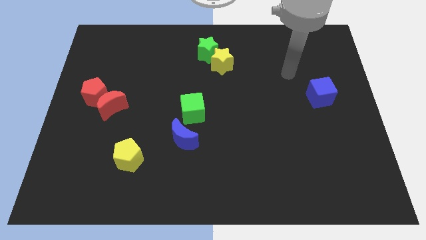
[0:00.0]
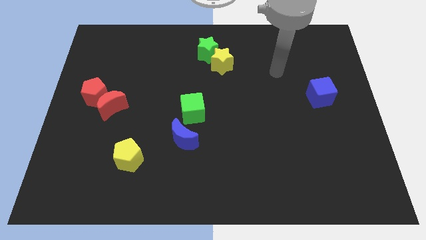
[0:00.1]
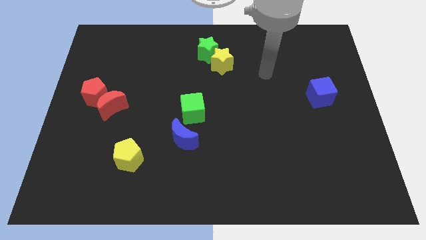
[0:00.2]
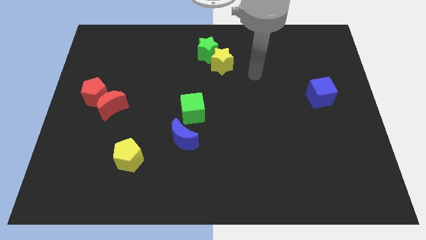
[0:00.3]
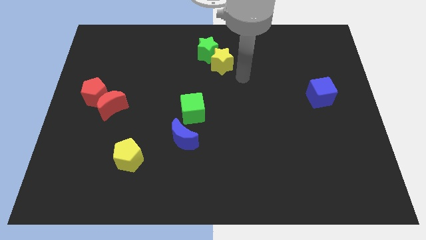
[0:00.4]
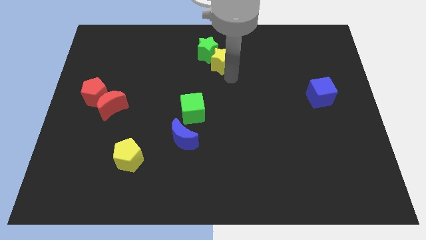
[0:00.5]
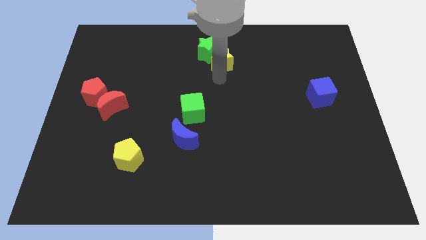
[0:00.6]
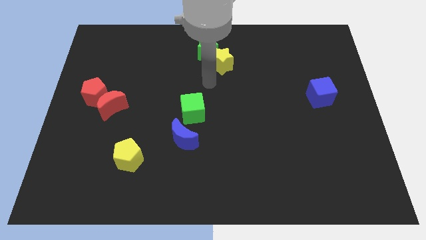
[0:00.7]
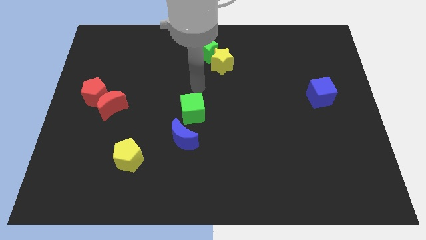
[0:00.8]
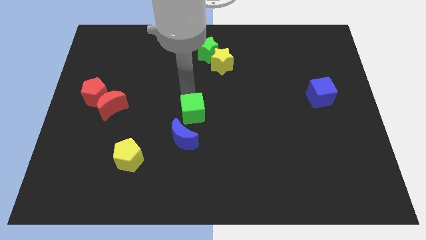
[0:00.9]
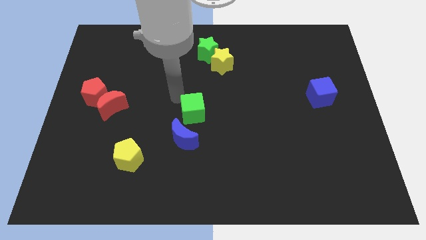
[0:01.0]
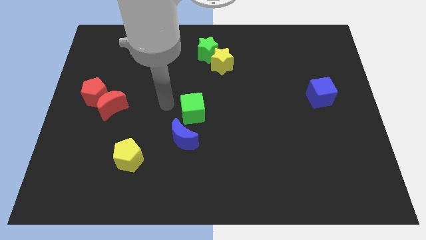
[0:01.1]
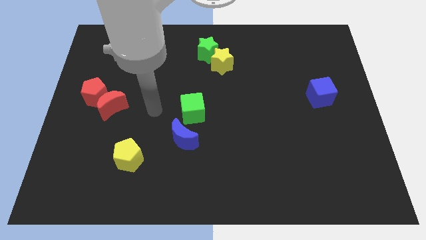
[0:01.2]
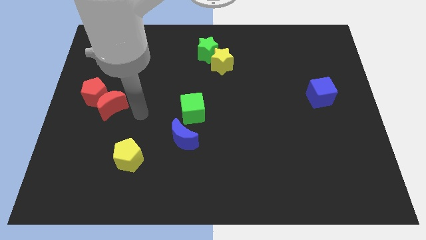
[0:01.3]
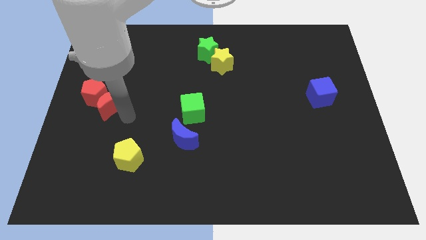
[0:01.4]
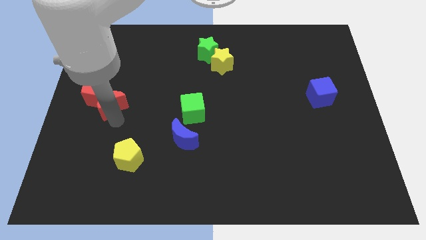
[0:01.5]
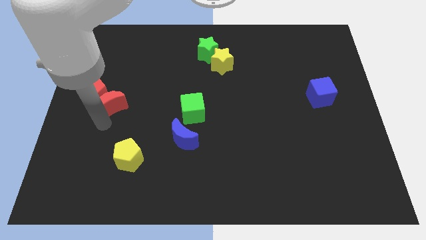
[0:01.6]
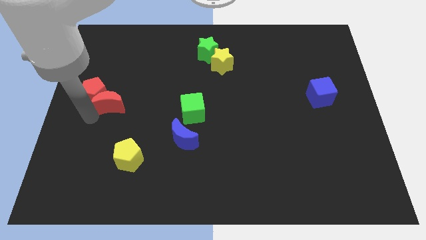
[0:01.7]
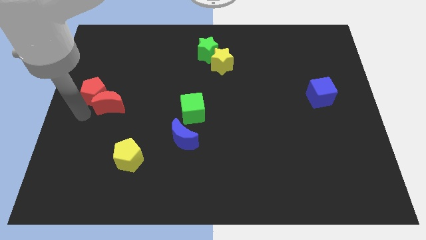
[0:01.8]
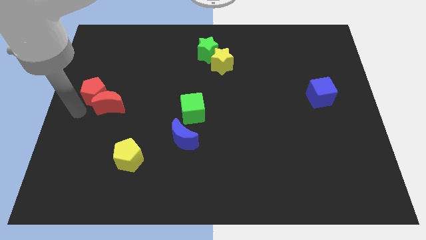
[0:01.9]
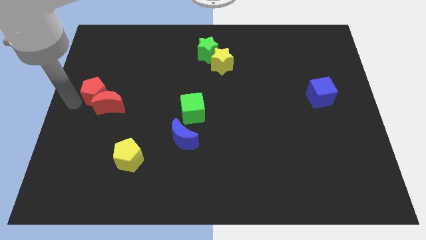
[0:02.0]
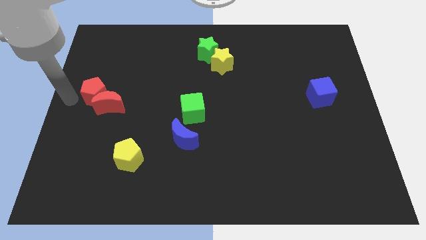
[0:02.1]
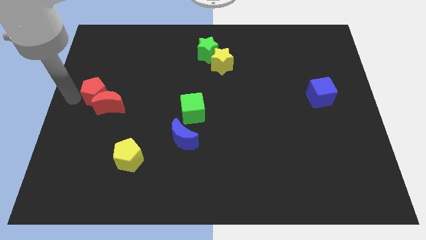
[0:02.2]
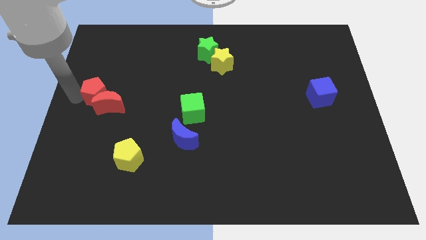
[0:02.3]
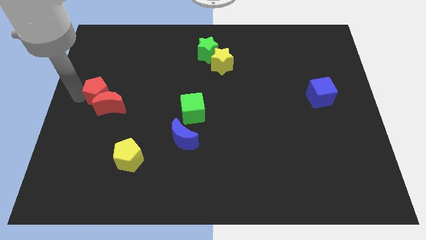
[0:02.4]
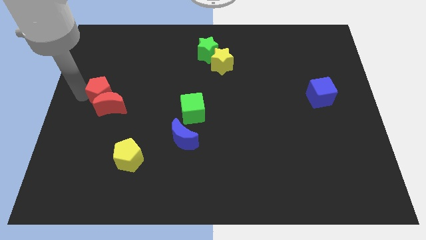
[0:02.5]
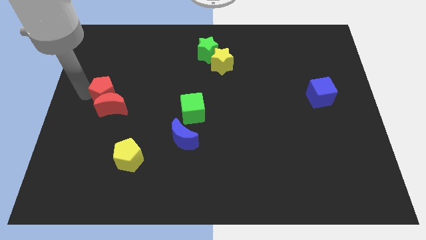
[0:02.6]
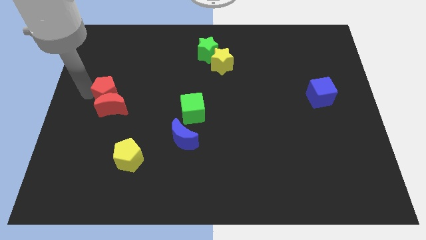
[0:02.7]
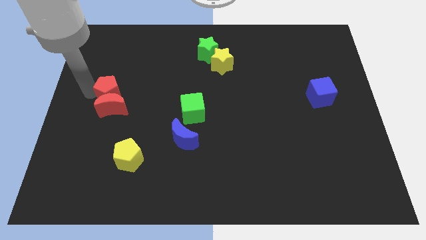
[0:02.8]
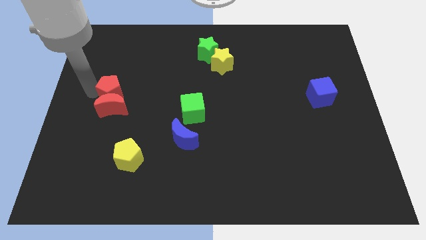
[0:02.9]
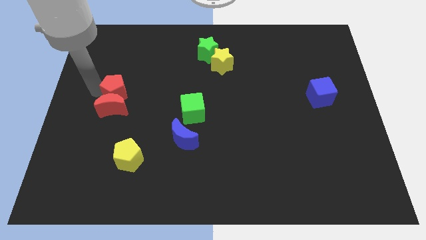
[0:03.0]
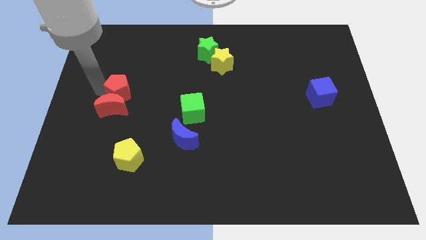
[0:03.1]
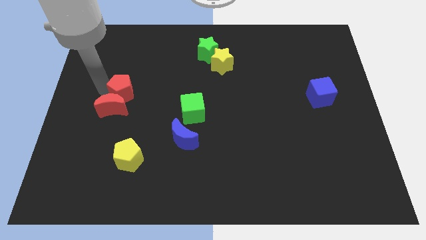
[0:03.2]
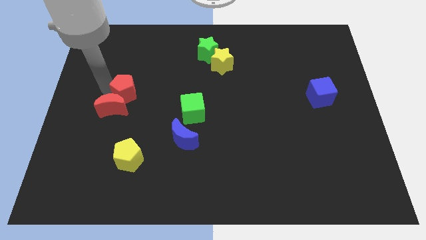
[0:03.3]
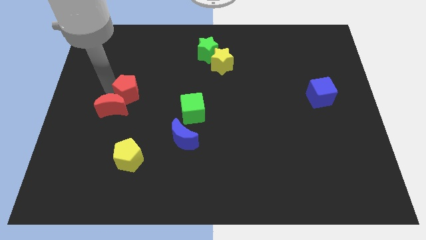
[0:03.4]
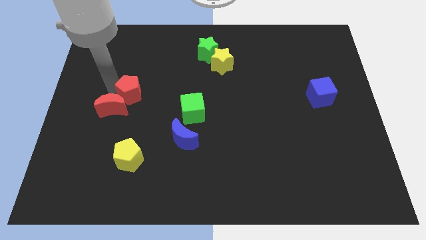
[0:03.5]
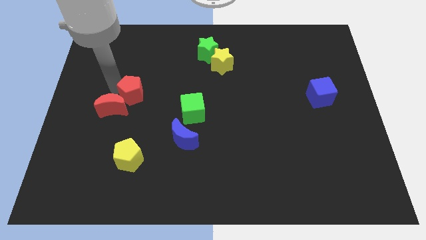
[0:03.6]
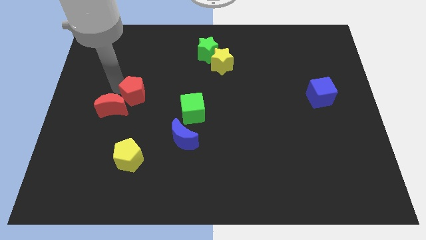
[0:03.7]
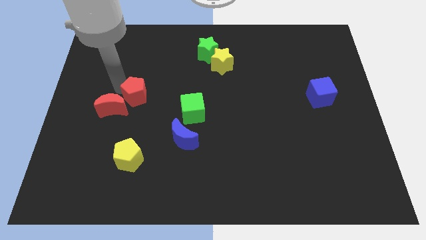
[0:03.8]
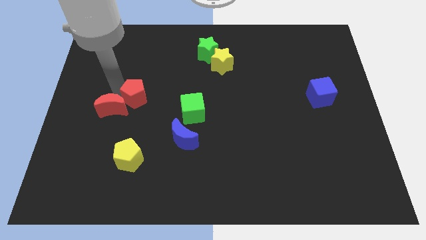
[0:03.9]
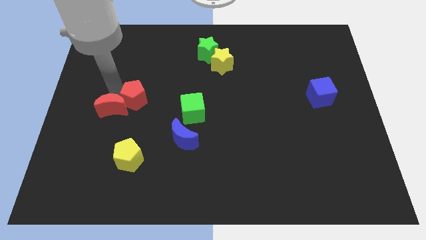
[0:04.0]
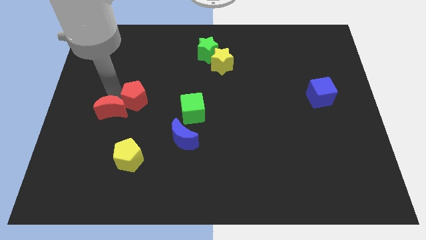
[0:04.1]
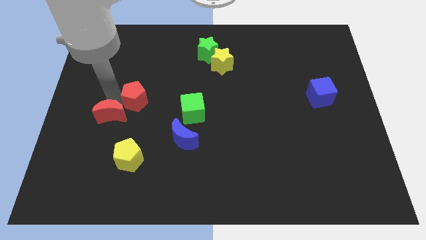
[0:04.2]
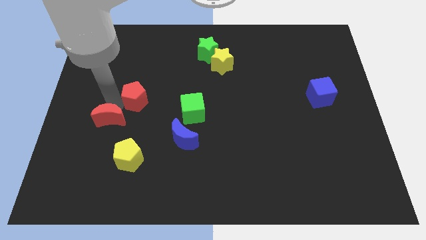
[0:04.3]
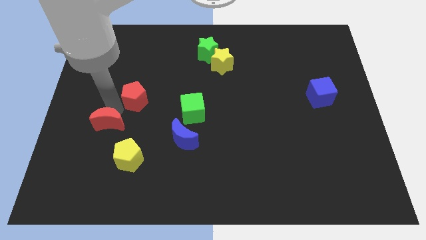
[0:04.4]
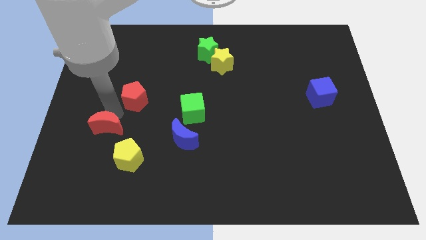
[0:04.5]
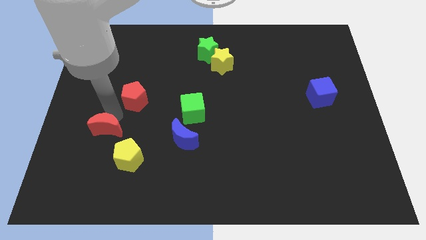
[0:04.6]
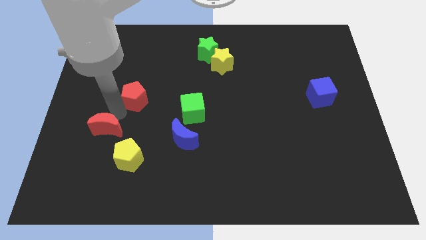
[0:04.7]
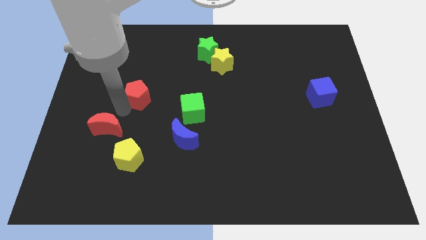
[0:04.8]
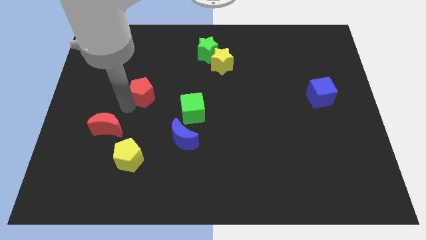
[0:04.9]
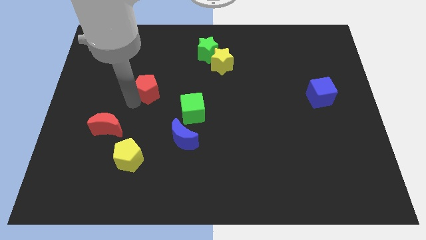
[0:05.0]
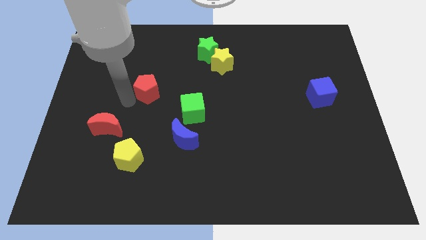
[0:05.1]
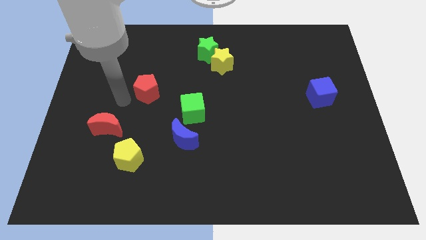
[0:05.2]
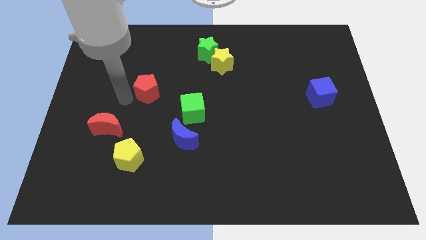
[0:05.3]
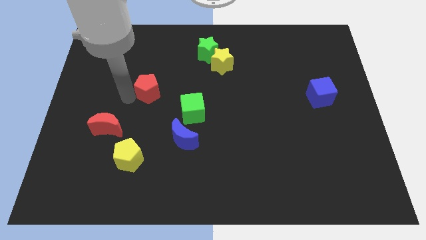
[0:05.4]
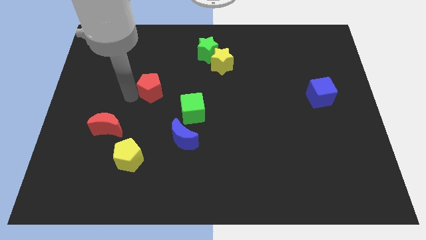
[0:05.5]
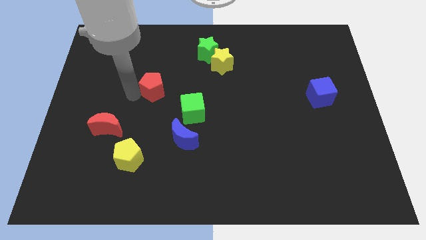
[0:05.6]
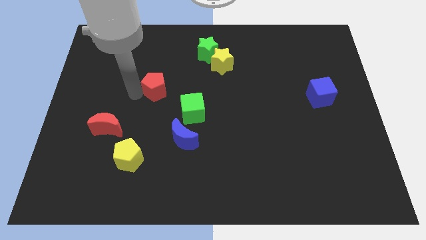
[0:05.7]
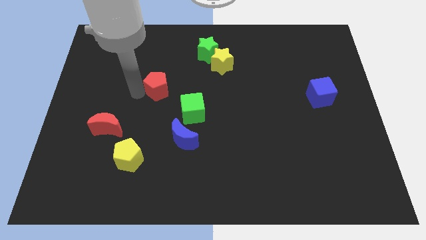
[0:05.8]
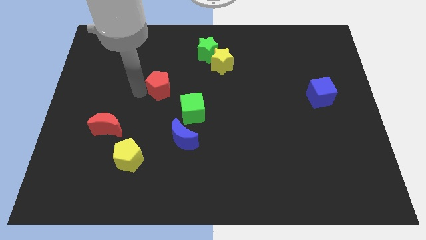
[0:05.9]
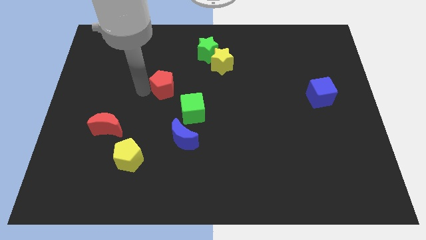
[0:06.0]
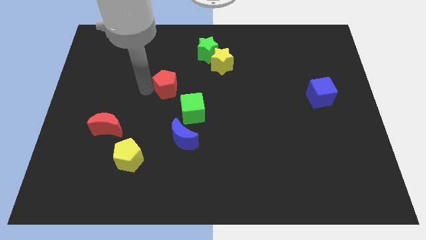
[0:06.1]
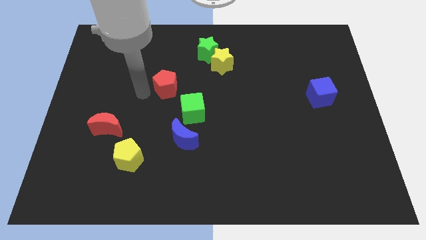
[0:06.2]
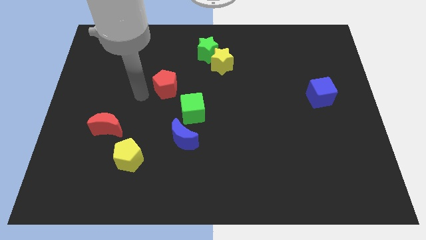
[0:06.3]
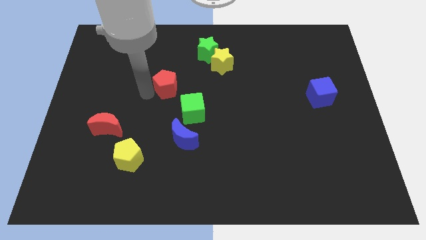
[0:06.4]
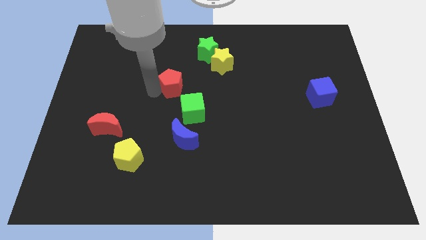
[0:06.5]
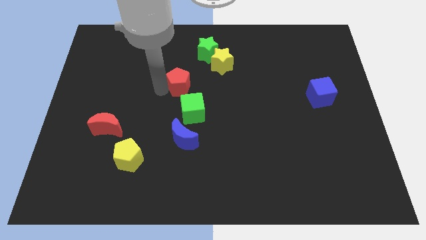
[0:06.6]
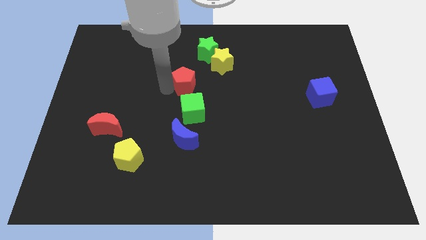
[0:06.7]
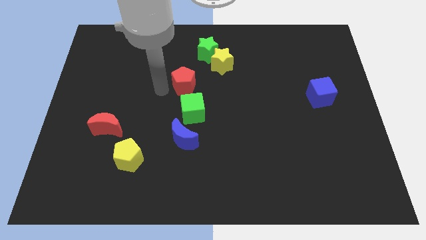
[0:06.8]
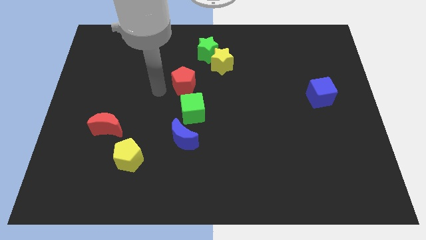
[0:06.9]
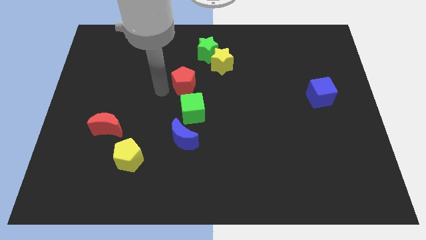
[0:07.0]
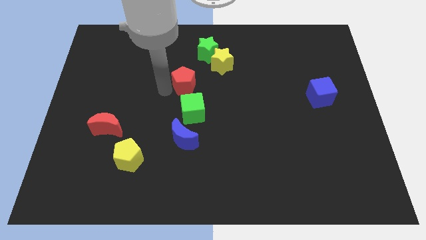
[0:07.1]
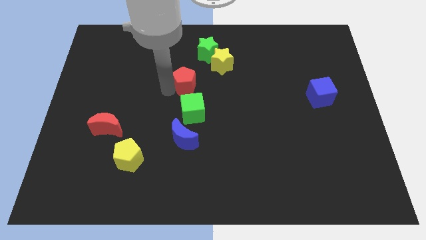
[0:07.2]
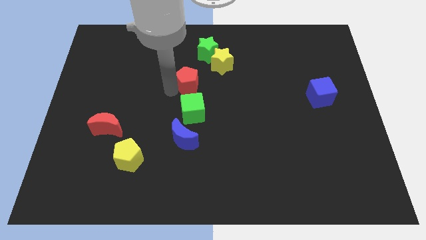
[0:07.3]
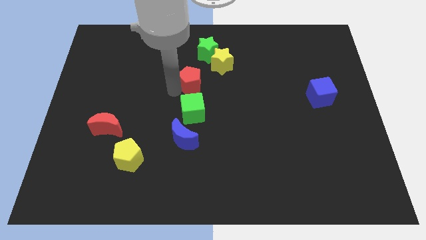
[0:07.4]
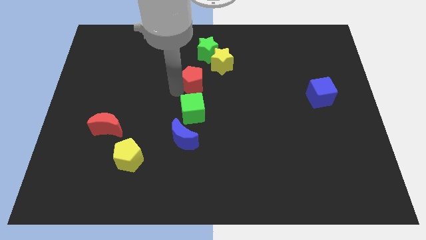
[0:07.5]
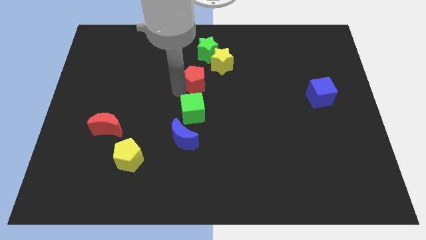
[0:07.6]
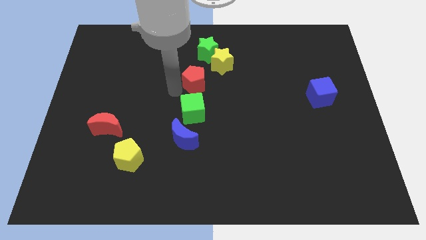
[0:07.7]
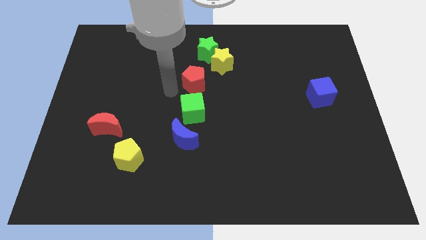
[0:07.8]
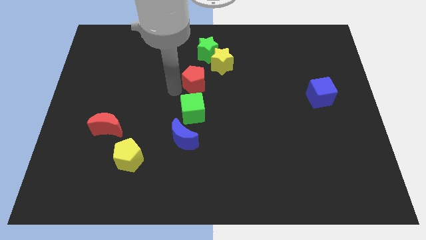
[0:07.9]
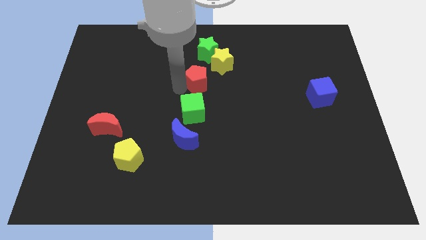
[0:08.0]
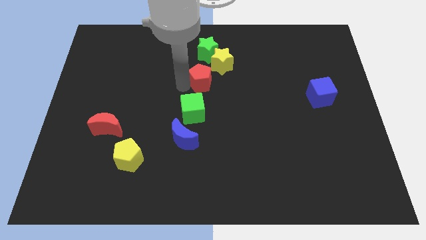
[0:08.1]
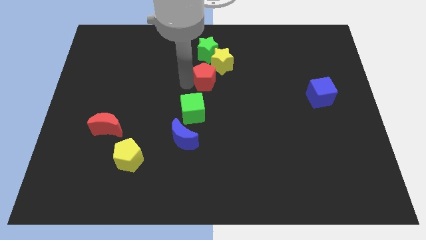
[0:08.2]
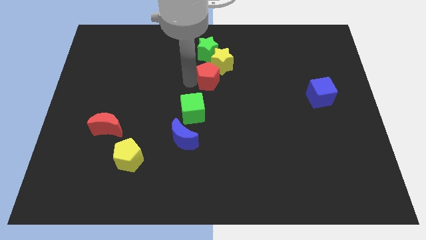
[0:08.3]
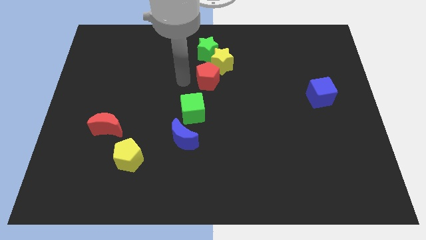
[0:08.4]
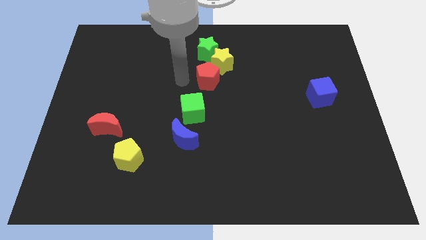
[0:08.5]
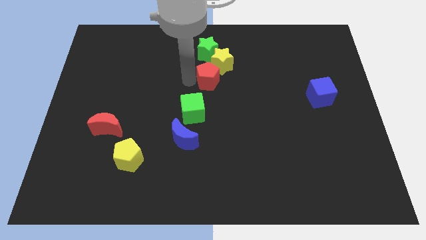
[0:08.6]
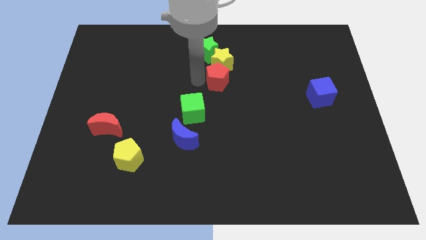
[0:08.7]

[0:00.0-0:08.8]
push the red pentagon diagonally down and to the right of the yellow star
